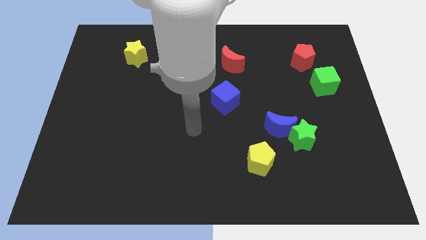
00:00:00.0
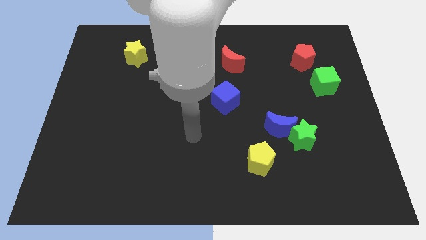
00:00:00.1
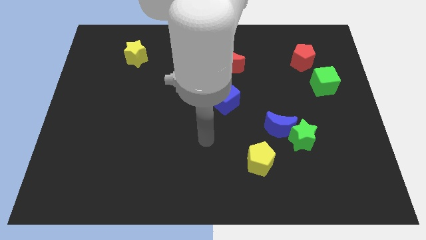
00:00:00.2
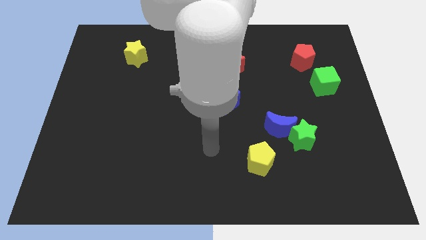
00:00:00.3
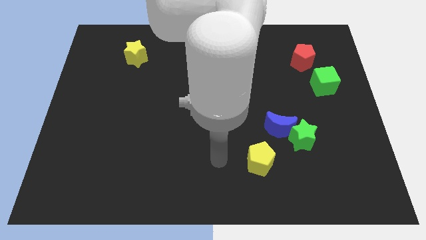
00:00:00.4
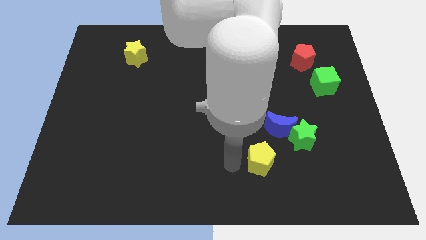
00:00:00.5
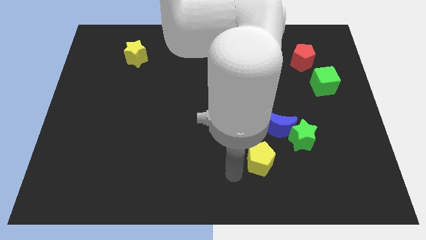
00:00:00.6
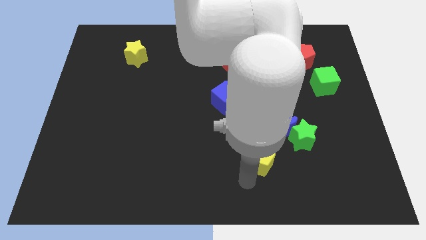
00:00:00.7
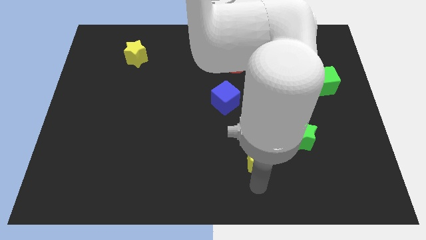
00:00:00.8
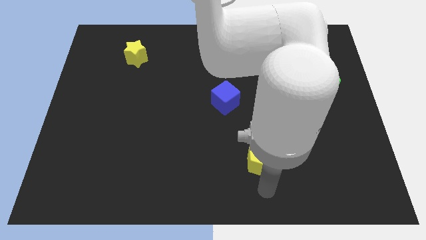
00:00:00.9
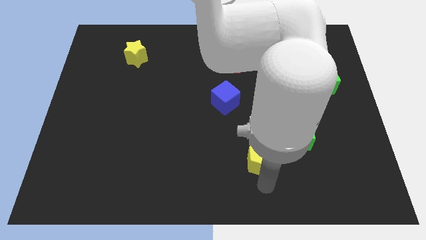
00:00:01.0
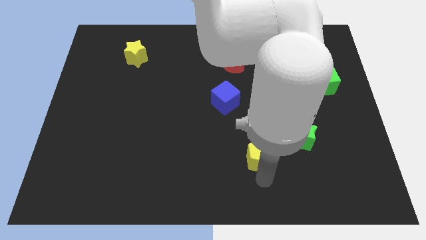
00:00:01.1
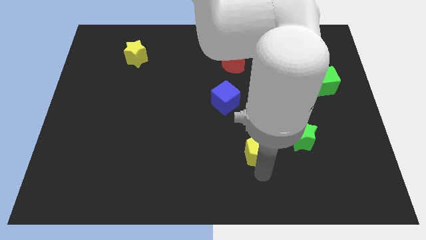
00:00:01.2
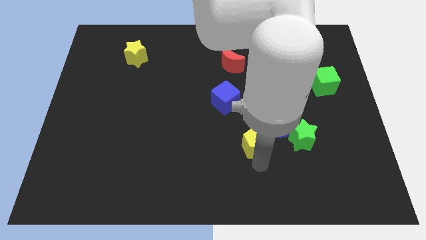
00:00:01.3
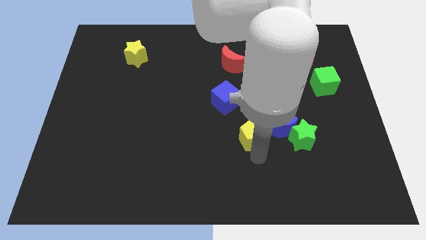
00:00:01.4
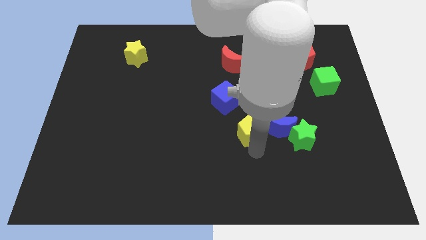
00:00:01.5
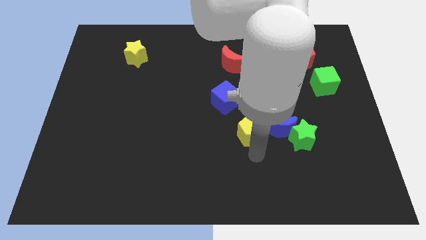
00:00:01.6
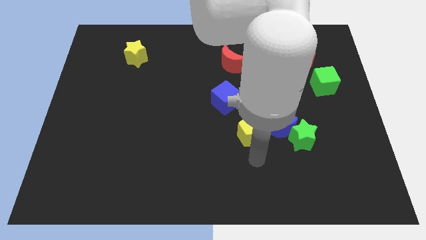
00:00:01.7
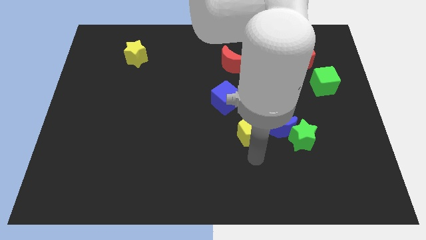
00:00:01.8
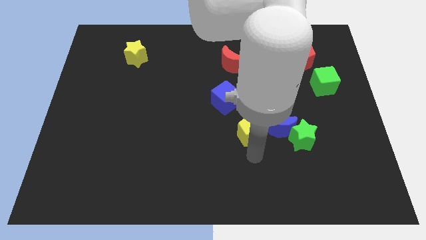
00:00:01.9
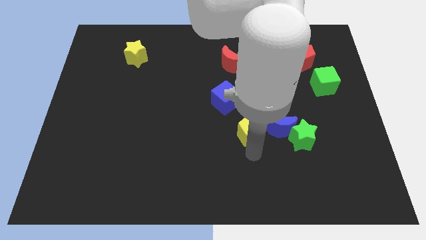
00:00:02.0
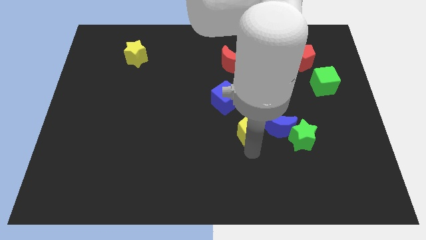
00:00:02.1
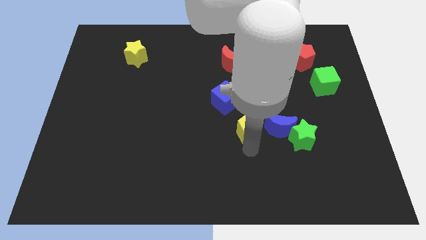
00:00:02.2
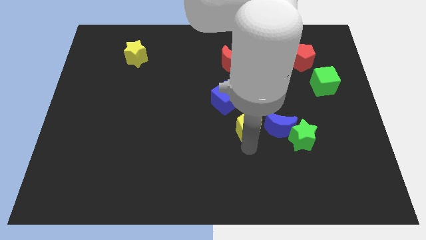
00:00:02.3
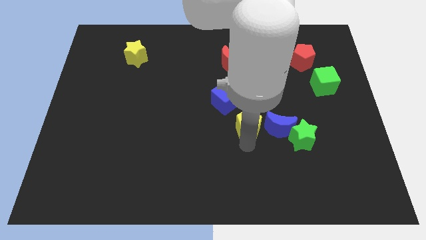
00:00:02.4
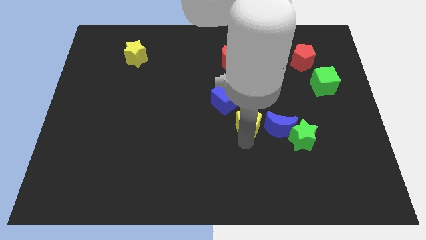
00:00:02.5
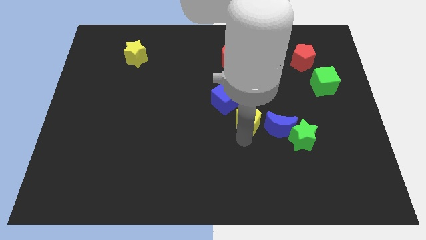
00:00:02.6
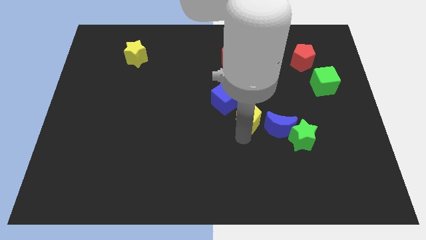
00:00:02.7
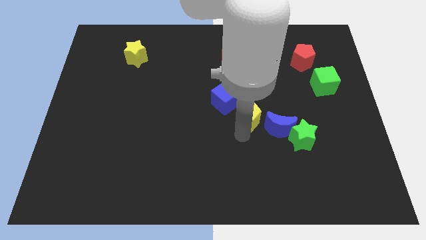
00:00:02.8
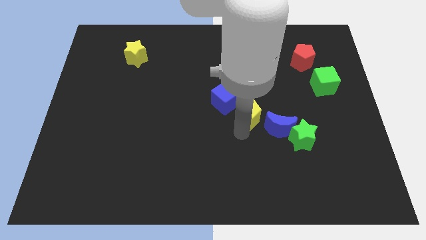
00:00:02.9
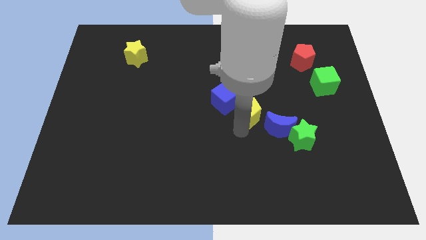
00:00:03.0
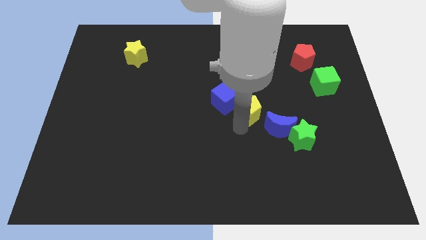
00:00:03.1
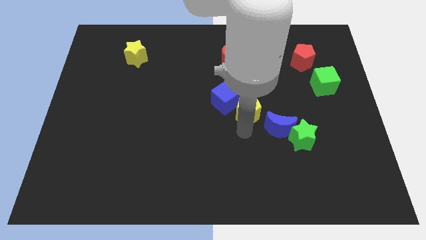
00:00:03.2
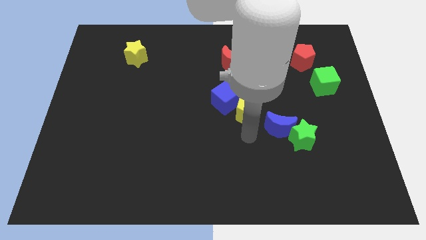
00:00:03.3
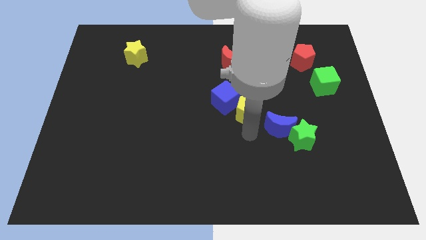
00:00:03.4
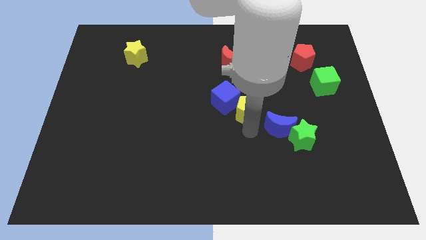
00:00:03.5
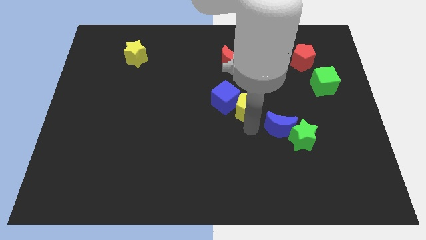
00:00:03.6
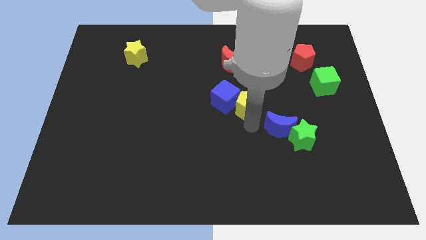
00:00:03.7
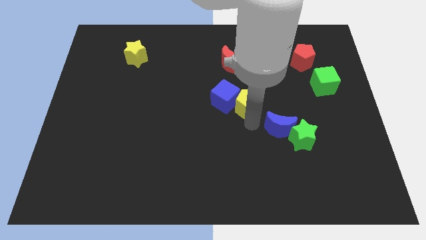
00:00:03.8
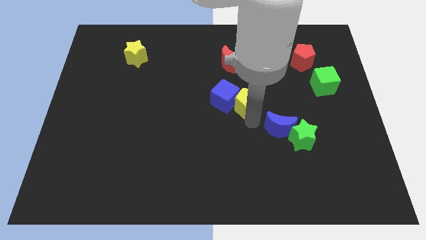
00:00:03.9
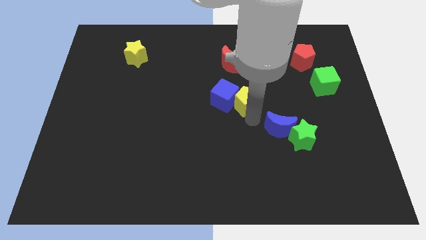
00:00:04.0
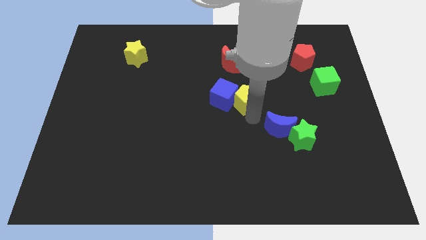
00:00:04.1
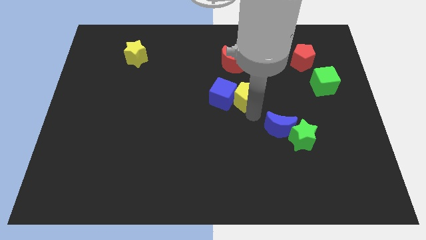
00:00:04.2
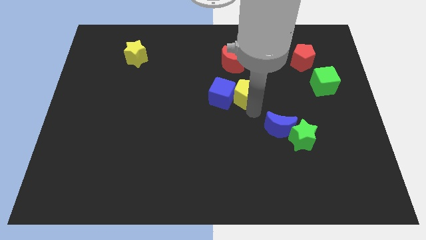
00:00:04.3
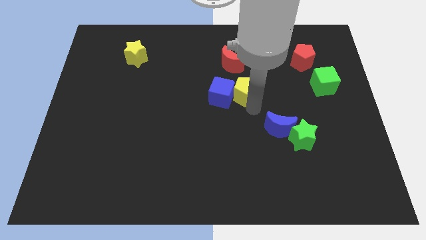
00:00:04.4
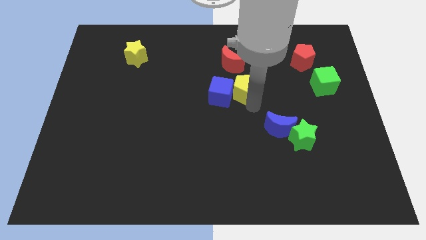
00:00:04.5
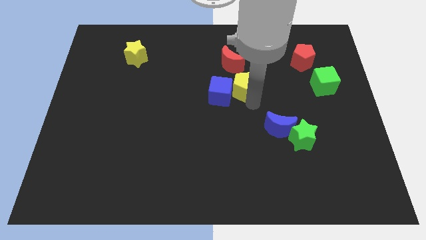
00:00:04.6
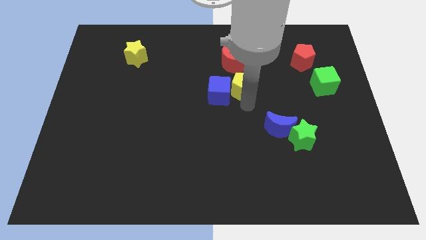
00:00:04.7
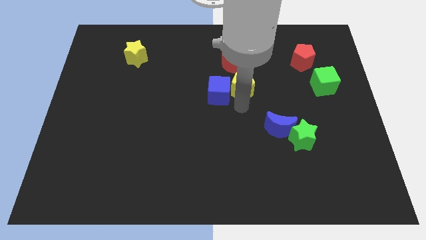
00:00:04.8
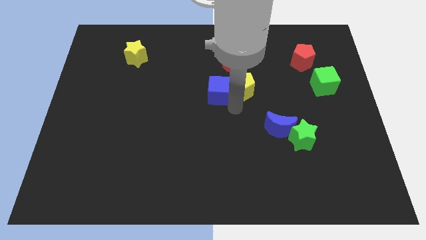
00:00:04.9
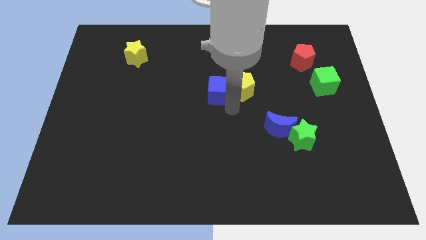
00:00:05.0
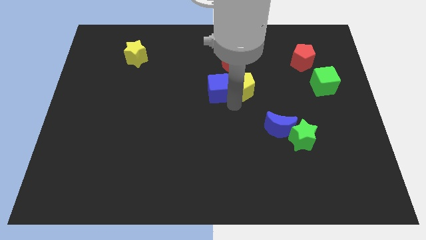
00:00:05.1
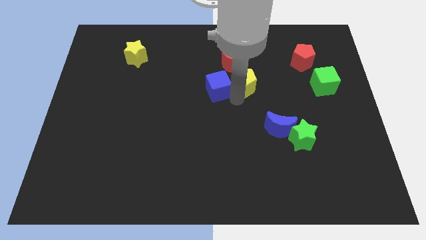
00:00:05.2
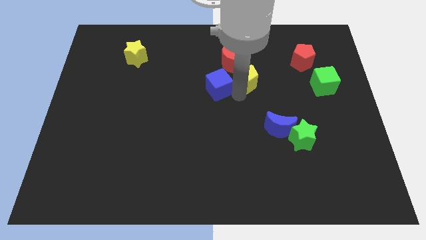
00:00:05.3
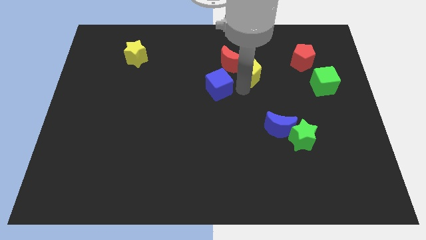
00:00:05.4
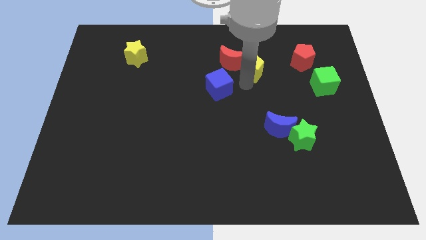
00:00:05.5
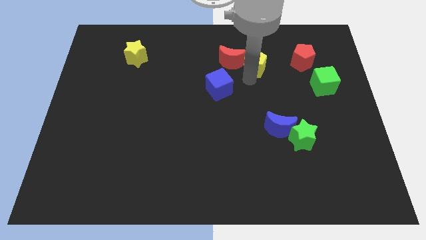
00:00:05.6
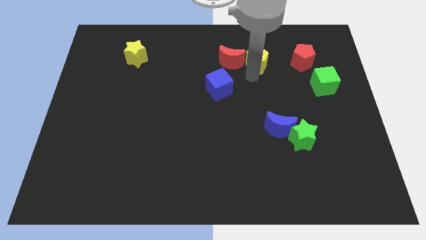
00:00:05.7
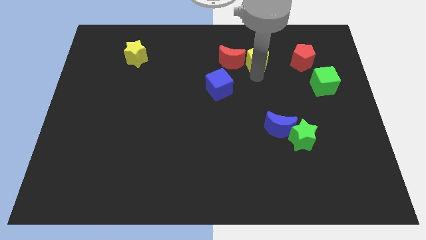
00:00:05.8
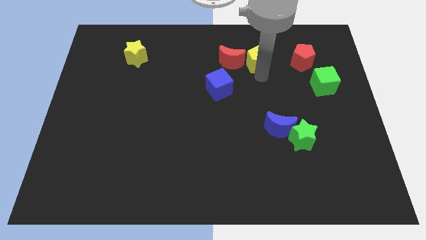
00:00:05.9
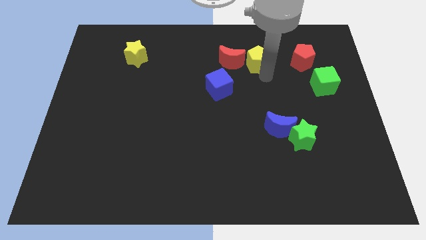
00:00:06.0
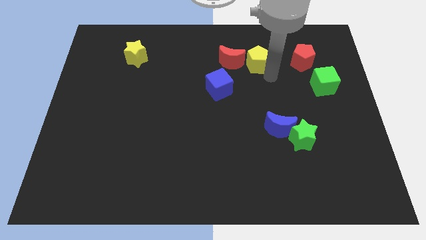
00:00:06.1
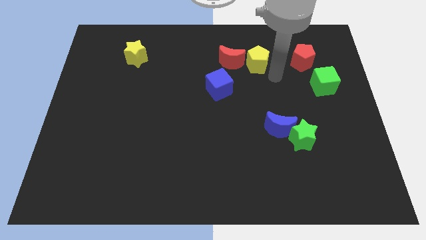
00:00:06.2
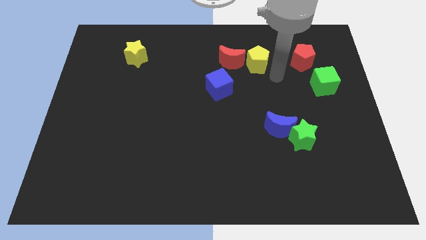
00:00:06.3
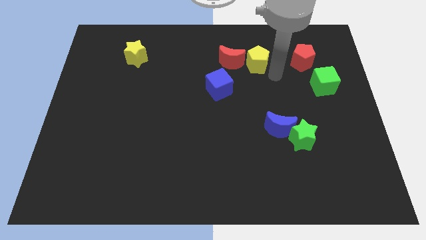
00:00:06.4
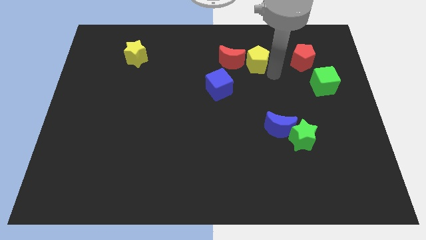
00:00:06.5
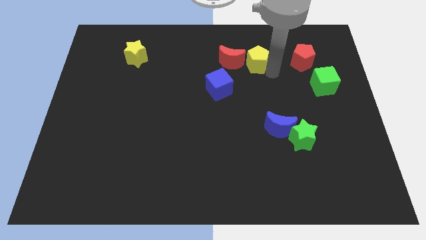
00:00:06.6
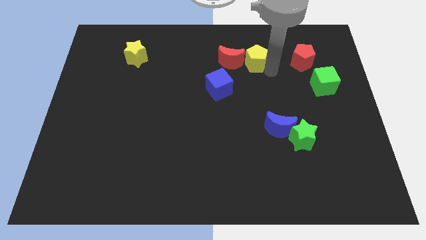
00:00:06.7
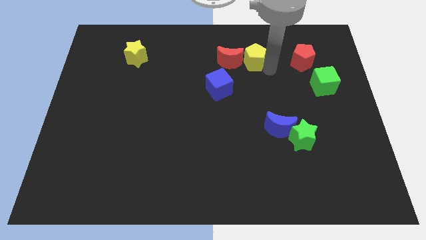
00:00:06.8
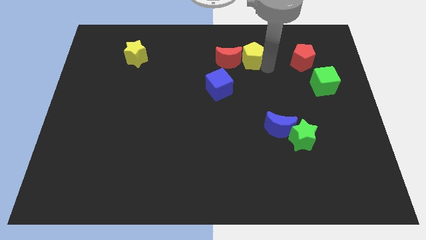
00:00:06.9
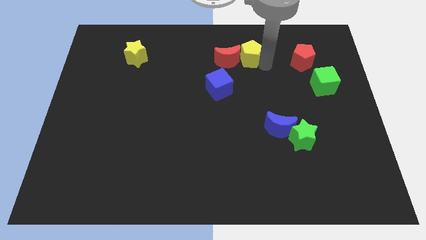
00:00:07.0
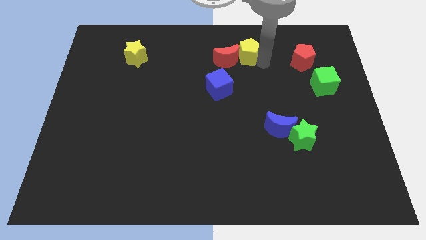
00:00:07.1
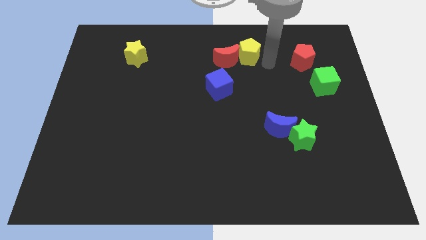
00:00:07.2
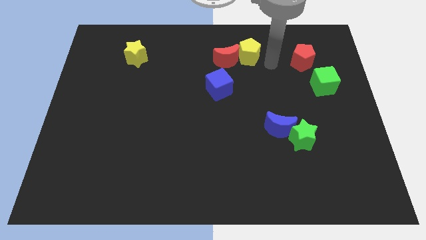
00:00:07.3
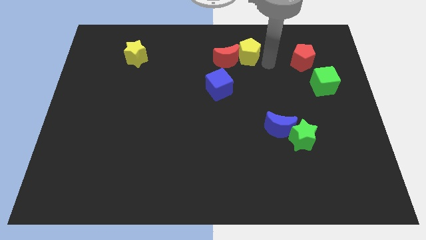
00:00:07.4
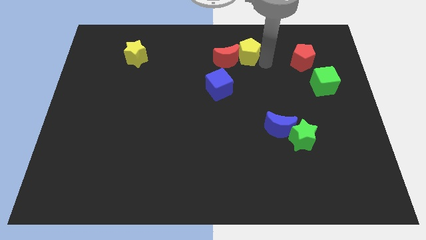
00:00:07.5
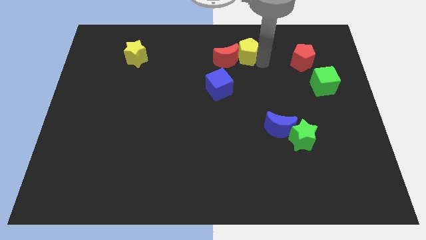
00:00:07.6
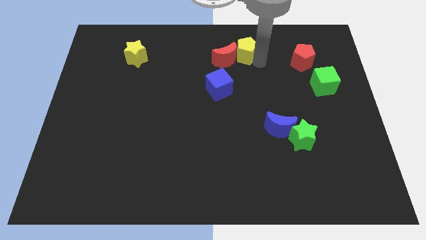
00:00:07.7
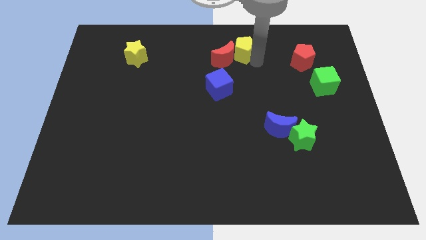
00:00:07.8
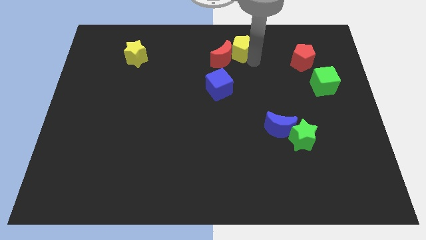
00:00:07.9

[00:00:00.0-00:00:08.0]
push the yellow pentagon to the towards your base
